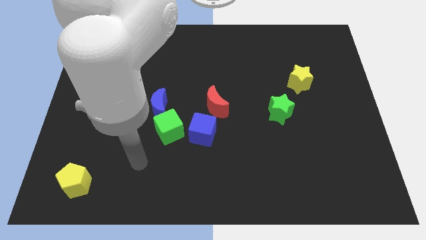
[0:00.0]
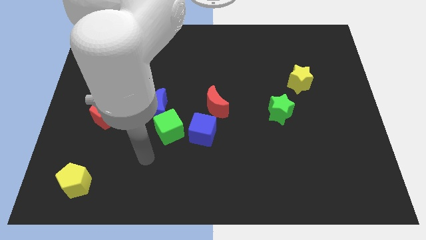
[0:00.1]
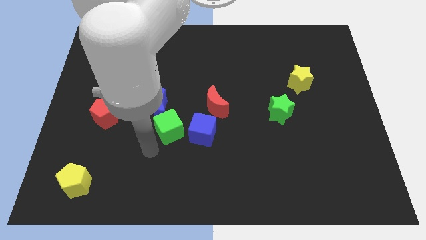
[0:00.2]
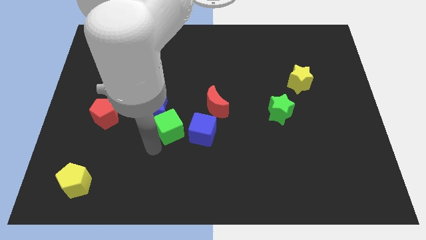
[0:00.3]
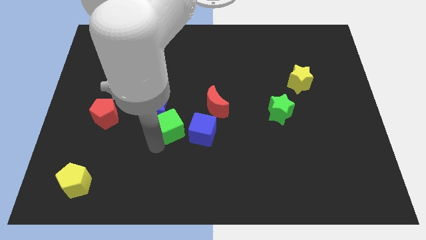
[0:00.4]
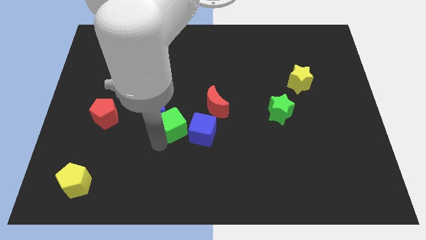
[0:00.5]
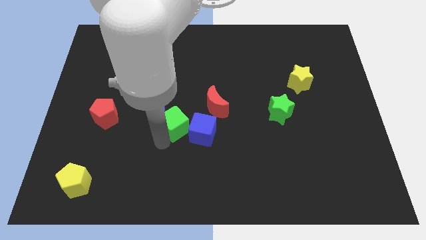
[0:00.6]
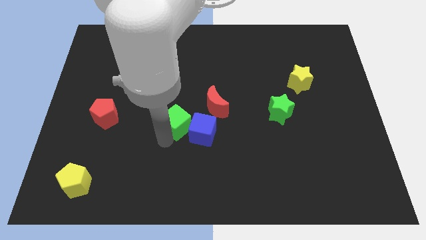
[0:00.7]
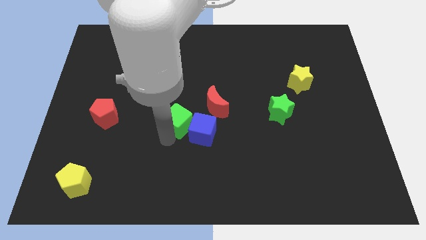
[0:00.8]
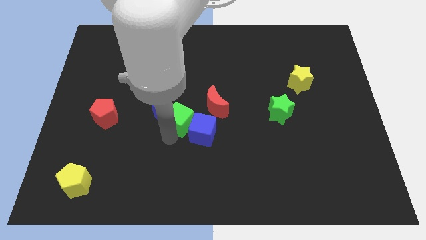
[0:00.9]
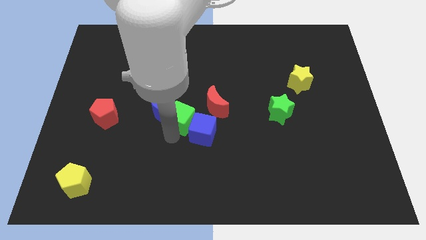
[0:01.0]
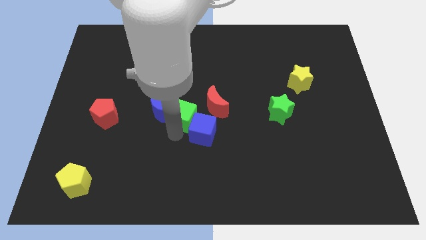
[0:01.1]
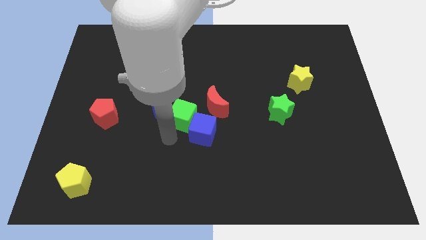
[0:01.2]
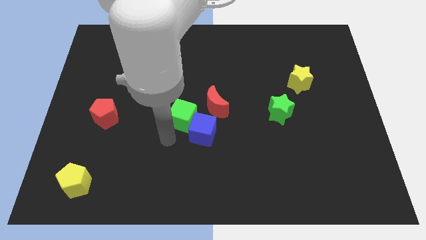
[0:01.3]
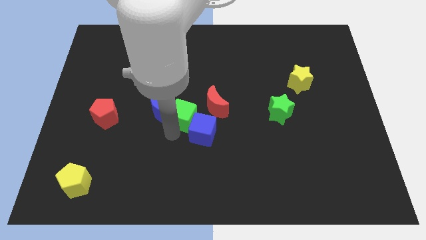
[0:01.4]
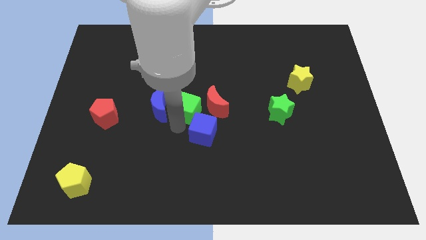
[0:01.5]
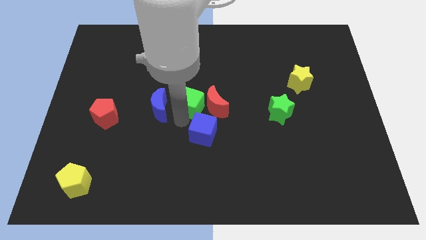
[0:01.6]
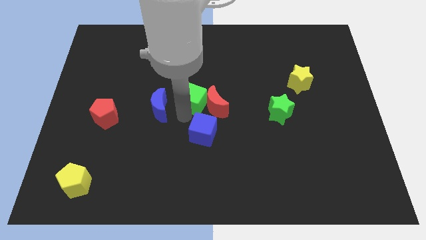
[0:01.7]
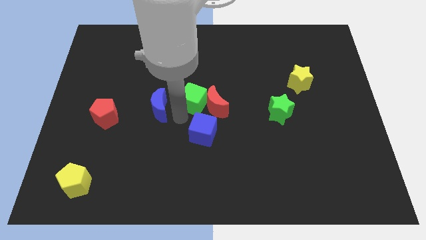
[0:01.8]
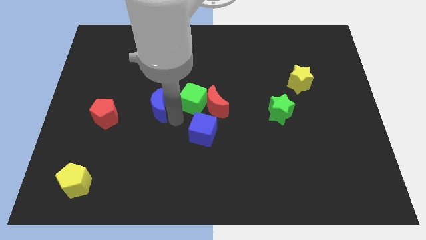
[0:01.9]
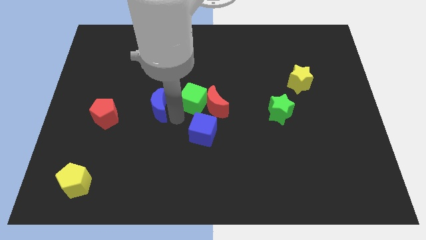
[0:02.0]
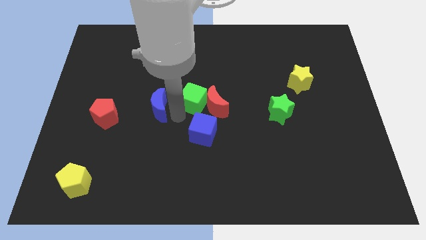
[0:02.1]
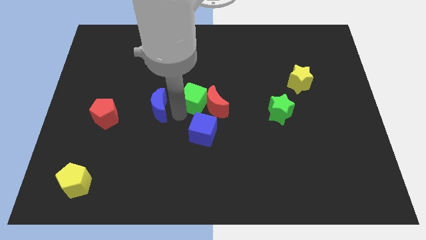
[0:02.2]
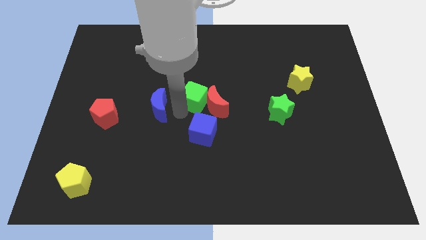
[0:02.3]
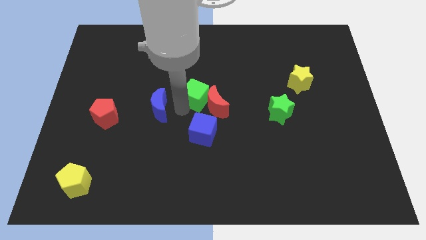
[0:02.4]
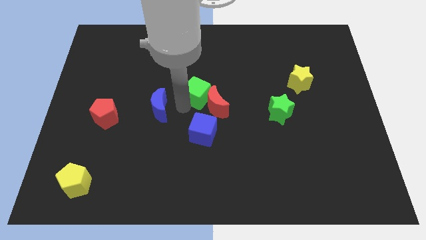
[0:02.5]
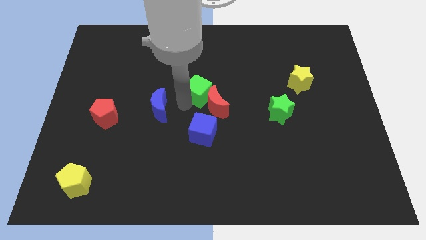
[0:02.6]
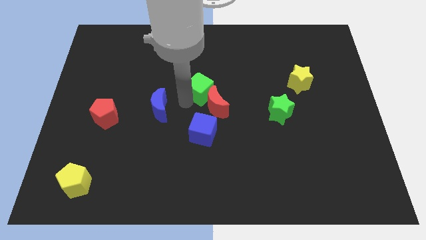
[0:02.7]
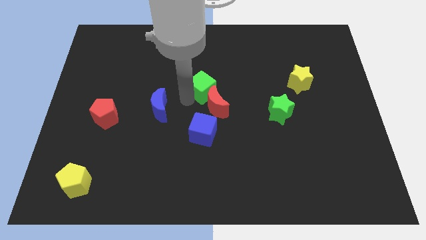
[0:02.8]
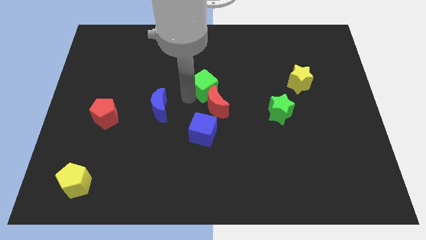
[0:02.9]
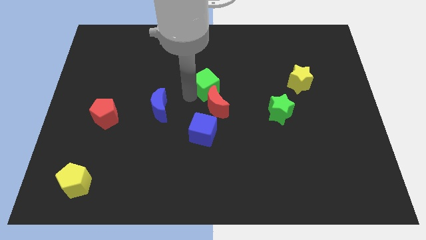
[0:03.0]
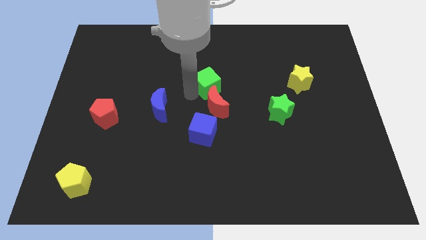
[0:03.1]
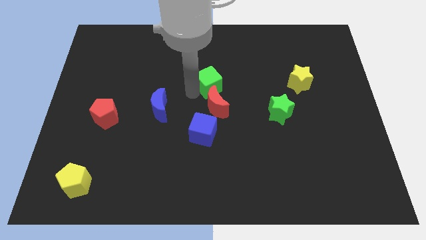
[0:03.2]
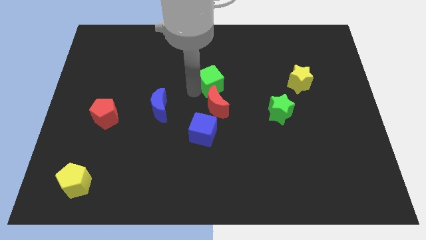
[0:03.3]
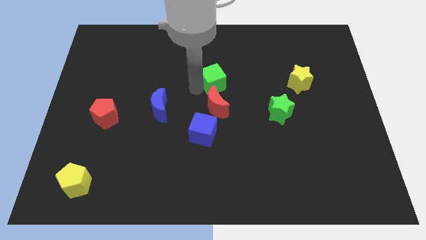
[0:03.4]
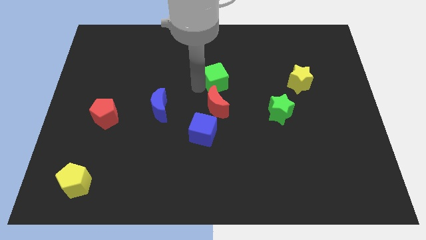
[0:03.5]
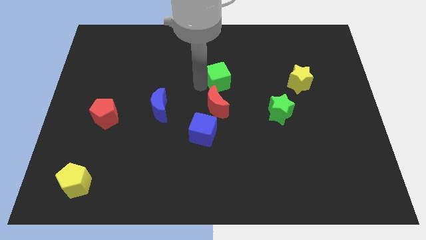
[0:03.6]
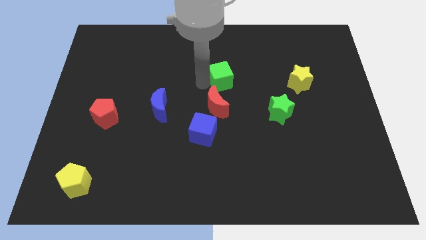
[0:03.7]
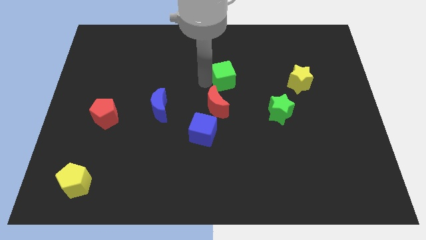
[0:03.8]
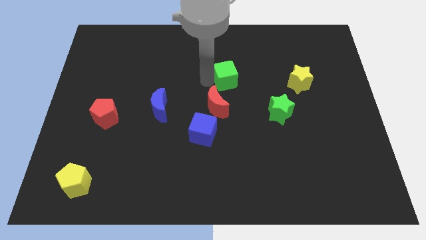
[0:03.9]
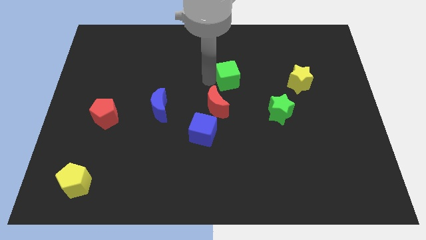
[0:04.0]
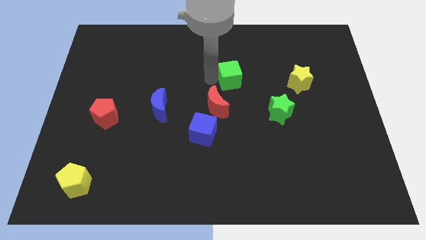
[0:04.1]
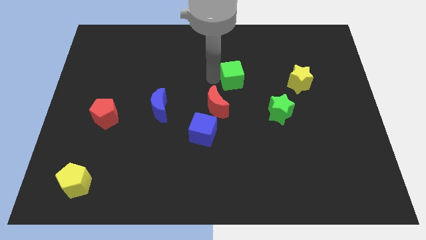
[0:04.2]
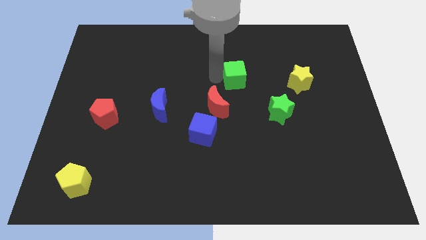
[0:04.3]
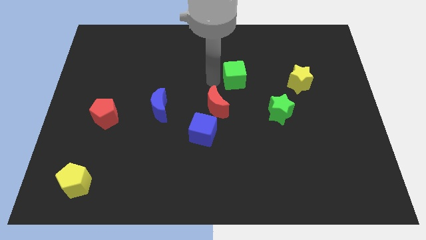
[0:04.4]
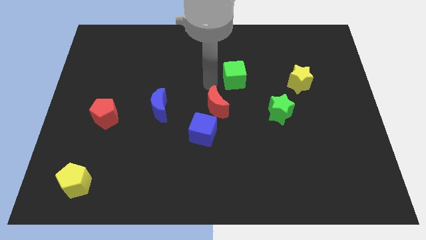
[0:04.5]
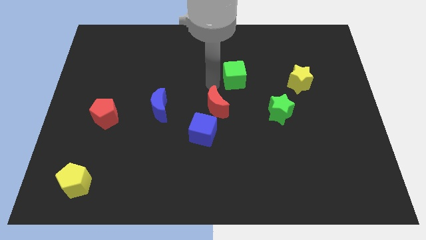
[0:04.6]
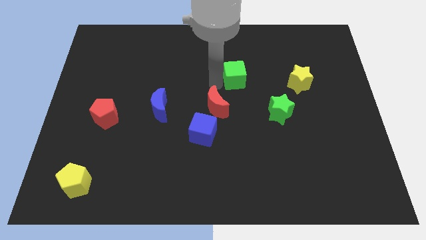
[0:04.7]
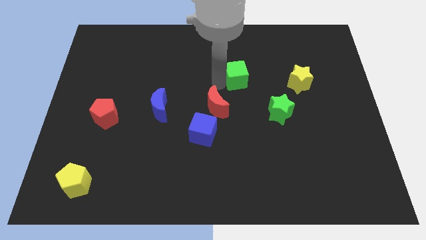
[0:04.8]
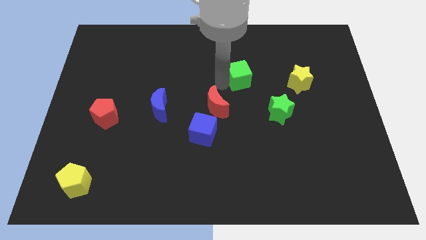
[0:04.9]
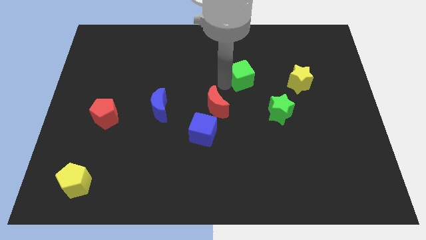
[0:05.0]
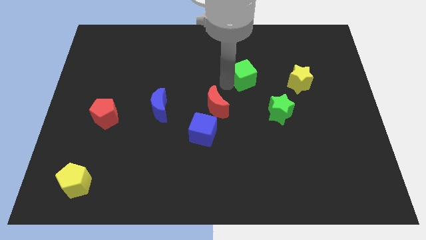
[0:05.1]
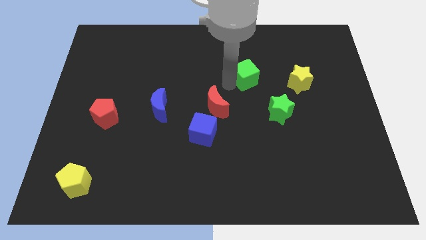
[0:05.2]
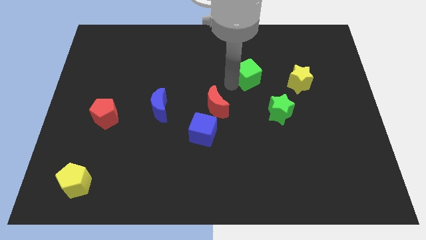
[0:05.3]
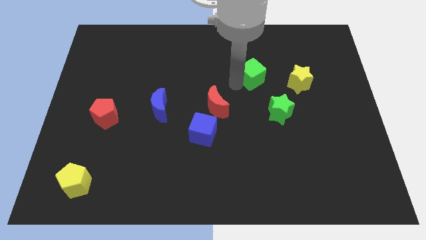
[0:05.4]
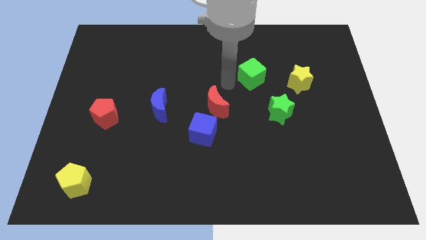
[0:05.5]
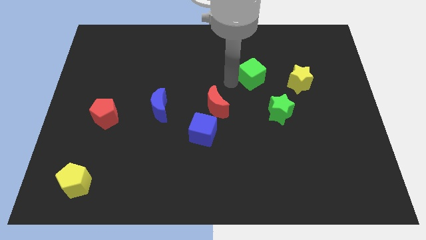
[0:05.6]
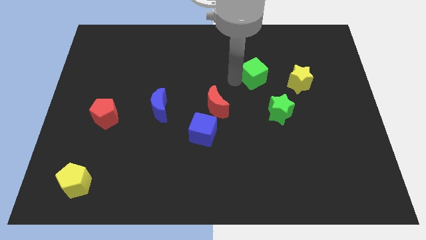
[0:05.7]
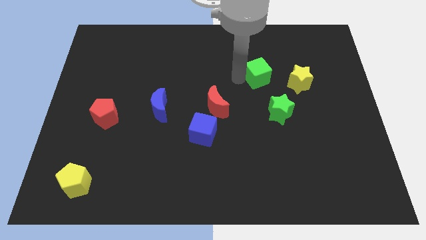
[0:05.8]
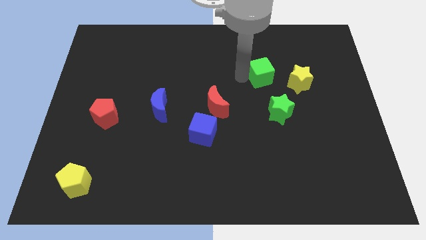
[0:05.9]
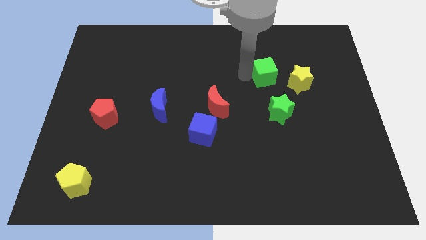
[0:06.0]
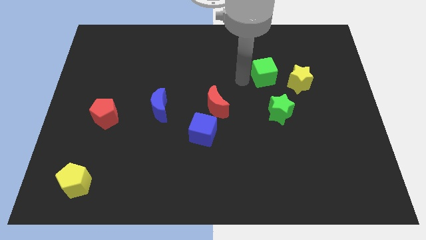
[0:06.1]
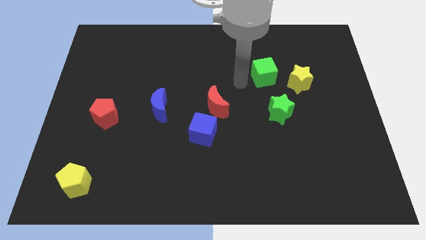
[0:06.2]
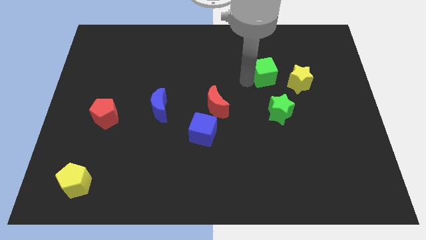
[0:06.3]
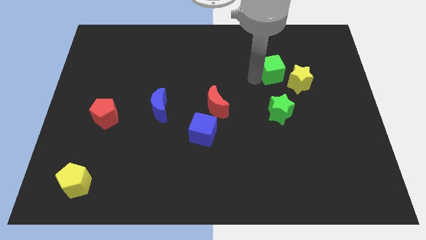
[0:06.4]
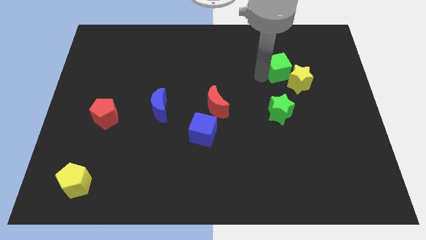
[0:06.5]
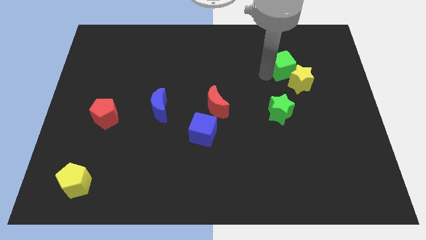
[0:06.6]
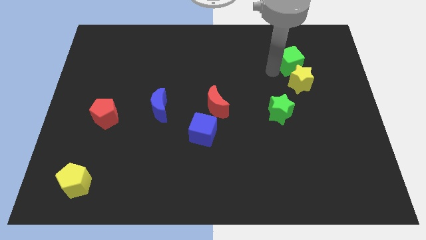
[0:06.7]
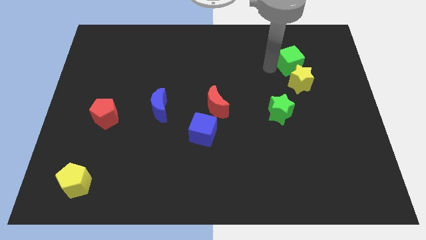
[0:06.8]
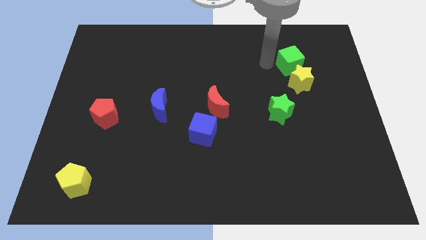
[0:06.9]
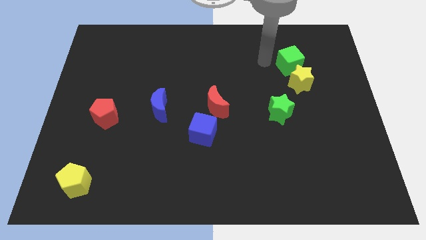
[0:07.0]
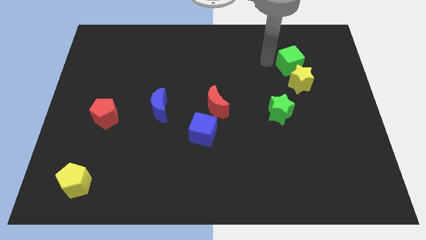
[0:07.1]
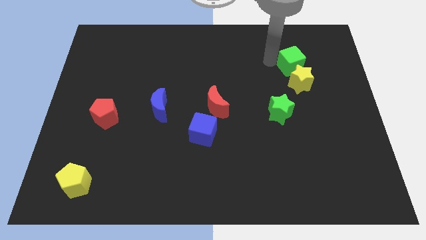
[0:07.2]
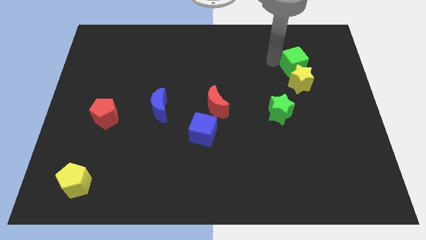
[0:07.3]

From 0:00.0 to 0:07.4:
slide the green cube diagonally up and to the right of the yellow star
